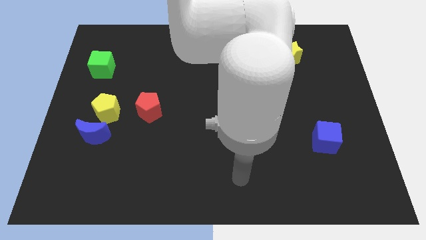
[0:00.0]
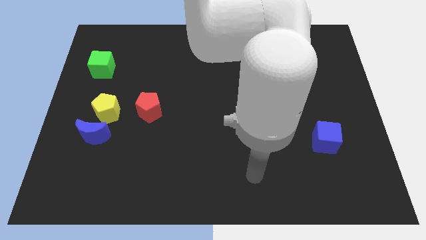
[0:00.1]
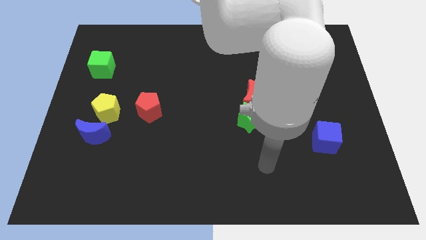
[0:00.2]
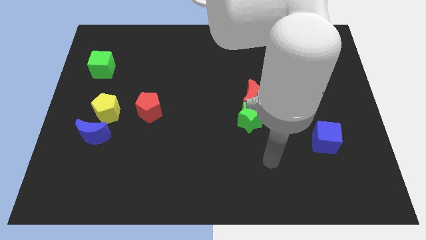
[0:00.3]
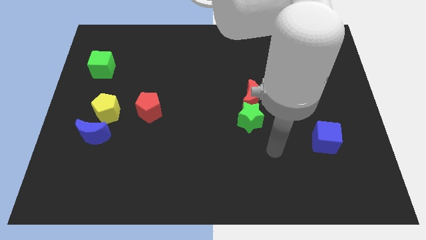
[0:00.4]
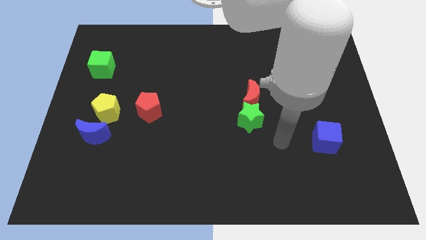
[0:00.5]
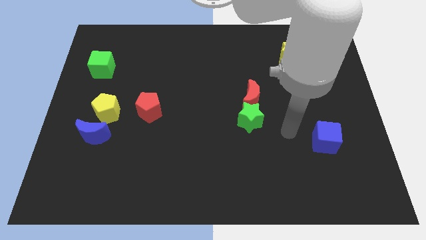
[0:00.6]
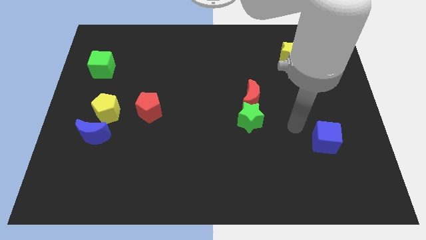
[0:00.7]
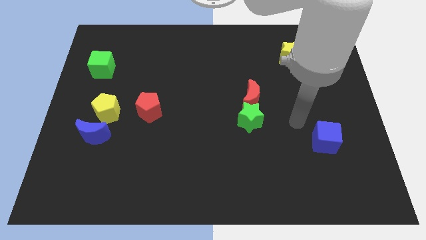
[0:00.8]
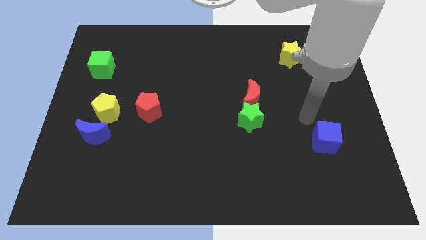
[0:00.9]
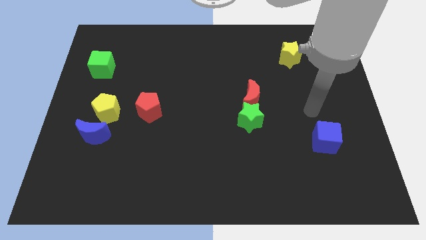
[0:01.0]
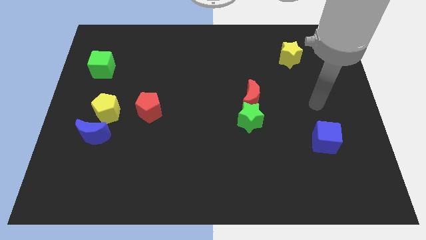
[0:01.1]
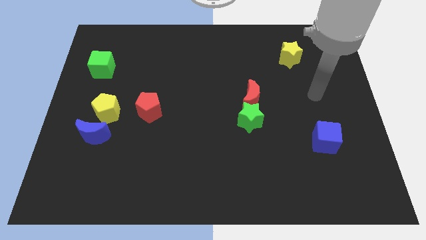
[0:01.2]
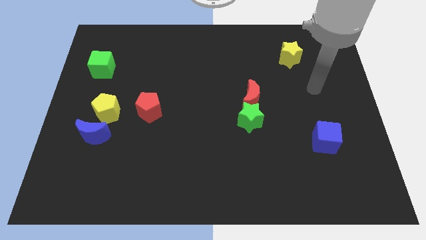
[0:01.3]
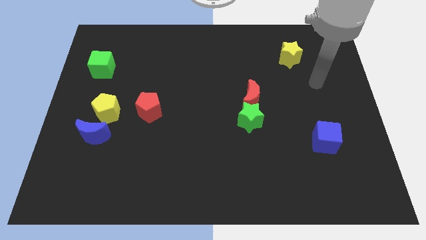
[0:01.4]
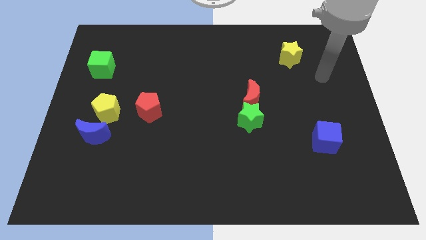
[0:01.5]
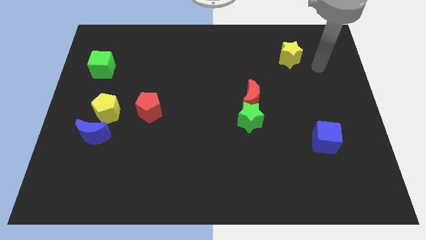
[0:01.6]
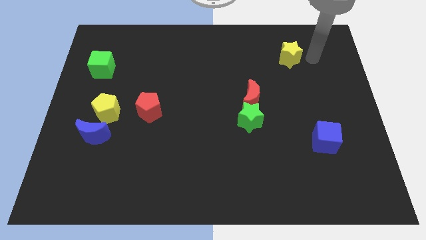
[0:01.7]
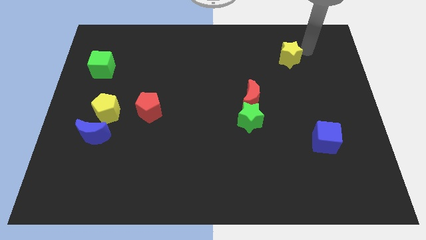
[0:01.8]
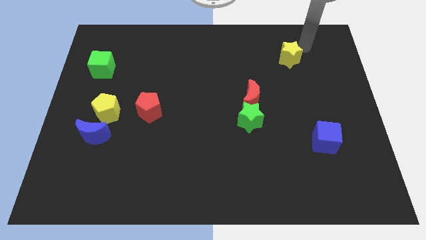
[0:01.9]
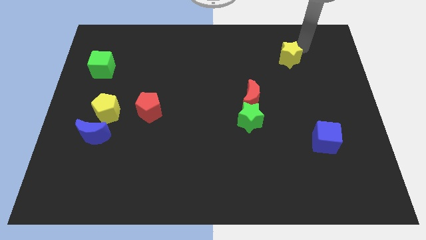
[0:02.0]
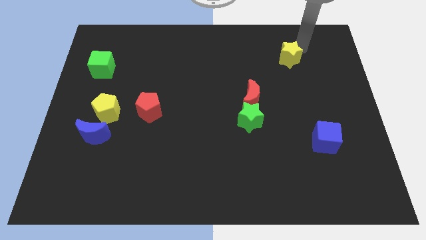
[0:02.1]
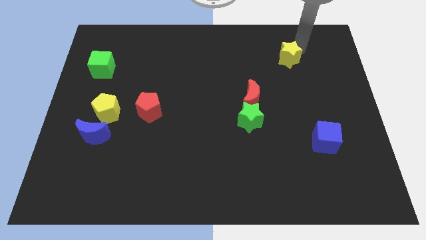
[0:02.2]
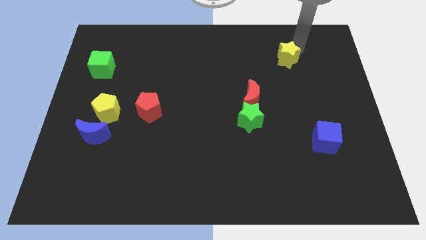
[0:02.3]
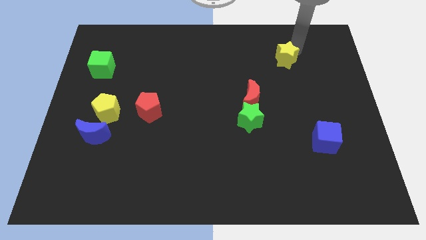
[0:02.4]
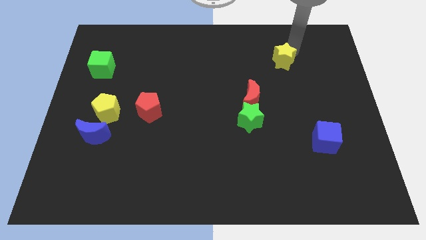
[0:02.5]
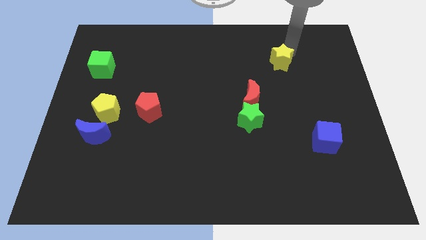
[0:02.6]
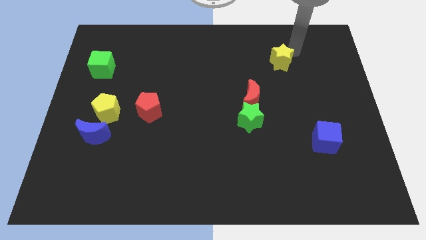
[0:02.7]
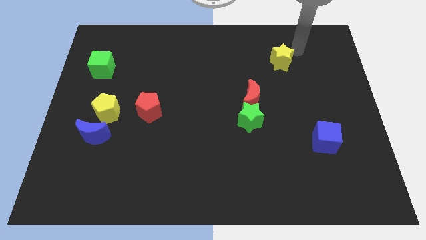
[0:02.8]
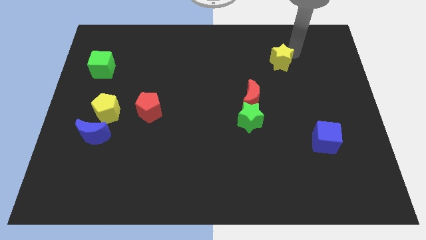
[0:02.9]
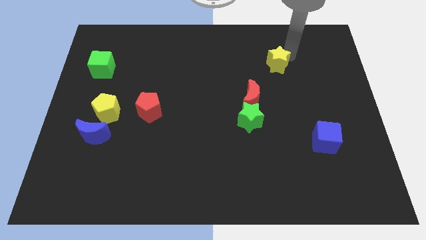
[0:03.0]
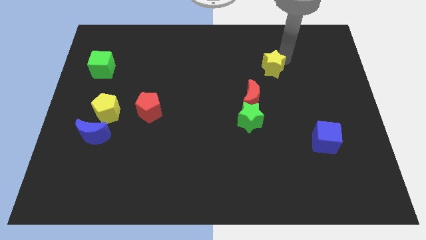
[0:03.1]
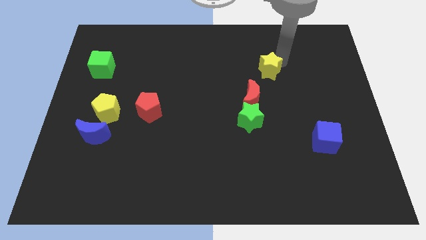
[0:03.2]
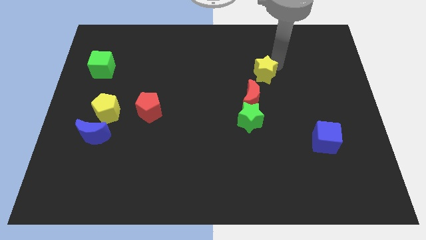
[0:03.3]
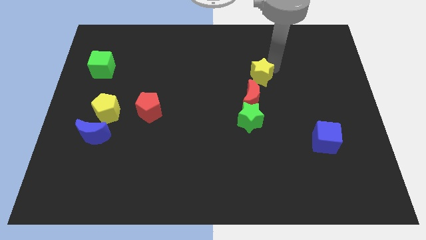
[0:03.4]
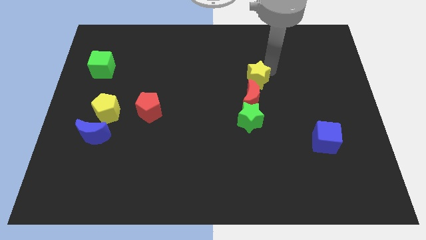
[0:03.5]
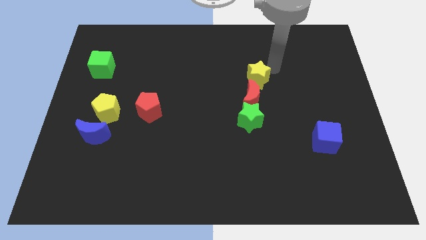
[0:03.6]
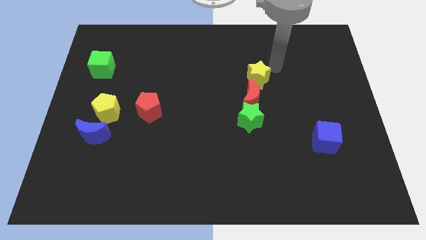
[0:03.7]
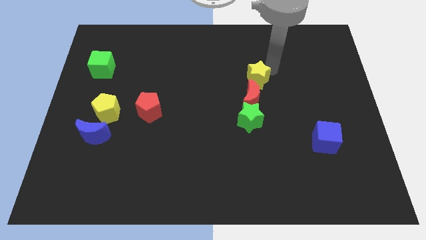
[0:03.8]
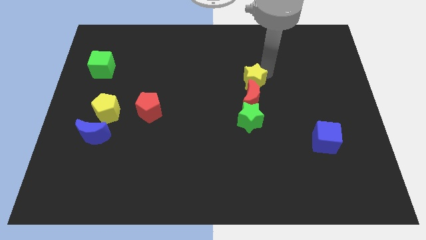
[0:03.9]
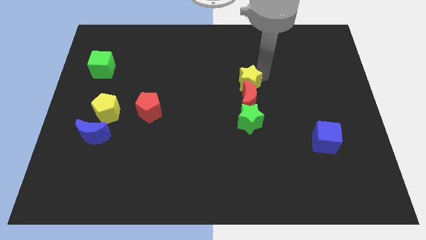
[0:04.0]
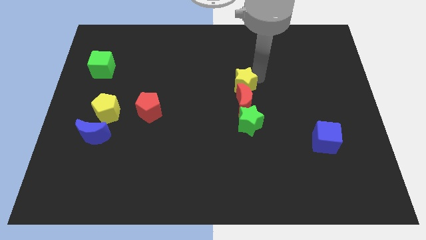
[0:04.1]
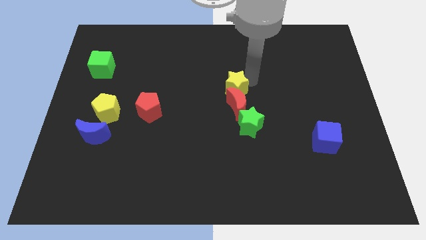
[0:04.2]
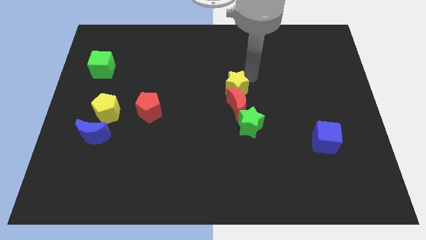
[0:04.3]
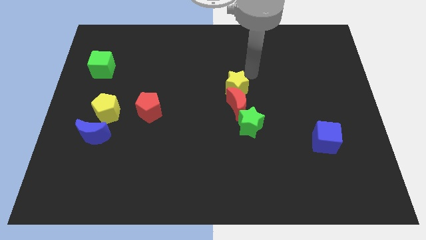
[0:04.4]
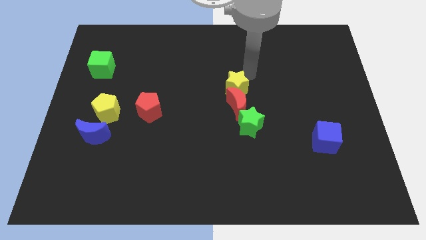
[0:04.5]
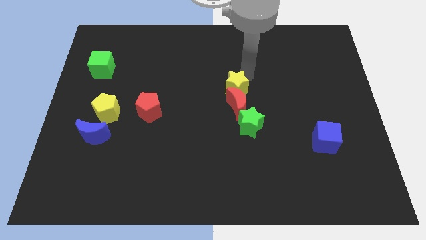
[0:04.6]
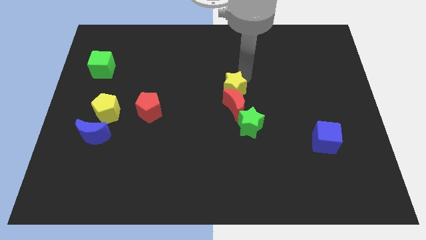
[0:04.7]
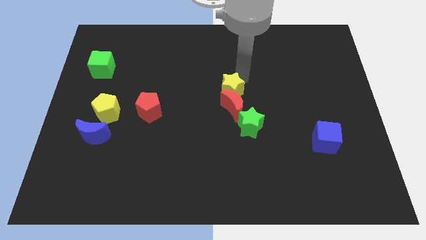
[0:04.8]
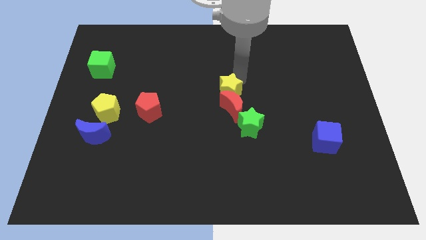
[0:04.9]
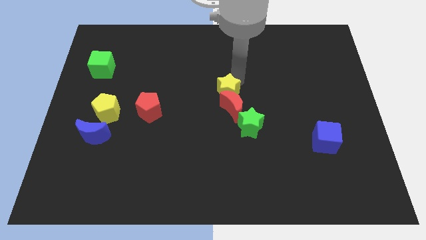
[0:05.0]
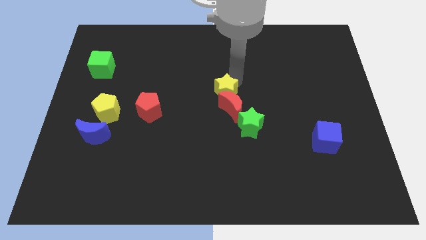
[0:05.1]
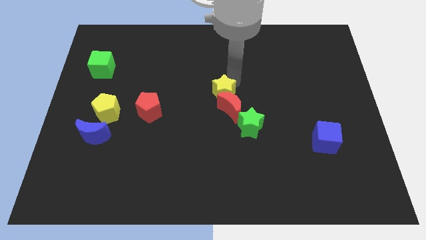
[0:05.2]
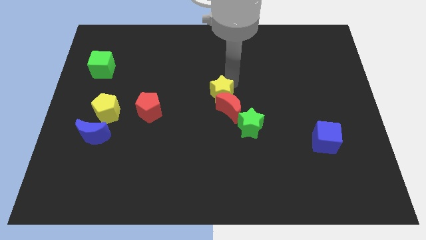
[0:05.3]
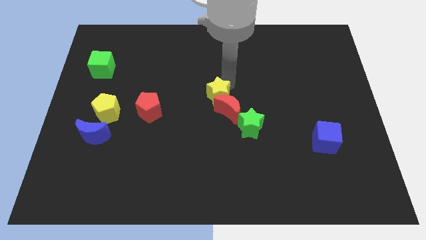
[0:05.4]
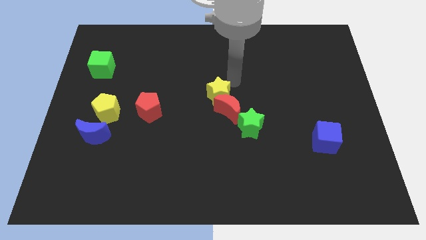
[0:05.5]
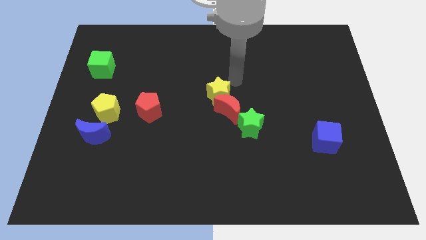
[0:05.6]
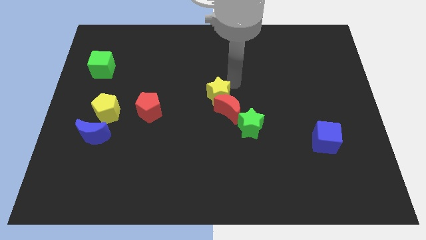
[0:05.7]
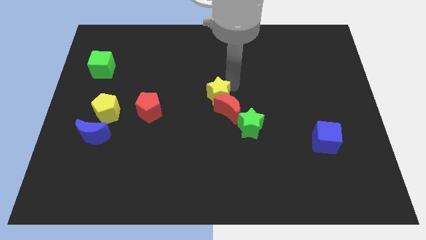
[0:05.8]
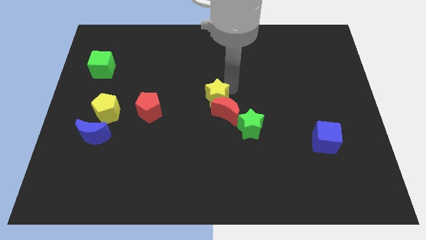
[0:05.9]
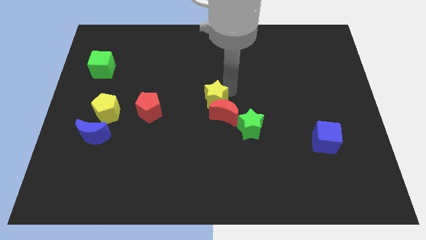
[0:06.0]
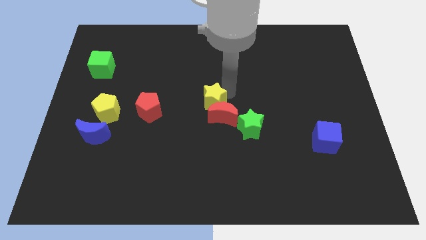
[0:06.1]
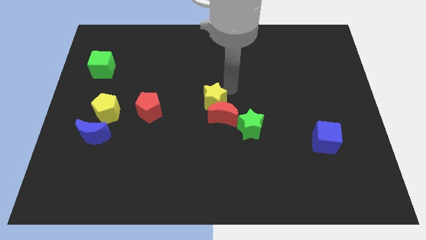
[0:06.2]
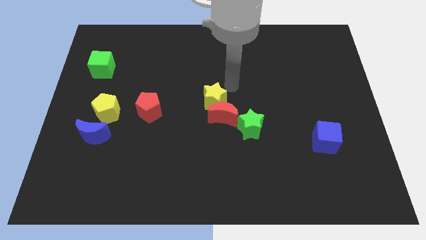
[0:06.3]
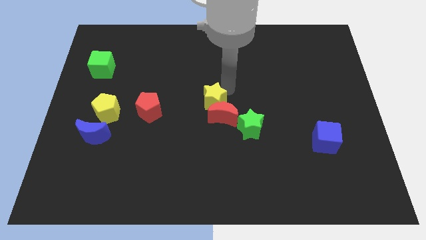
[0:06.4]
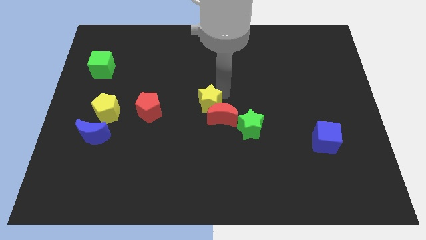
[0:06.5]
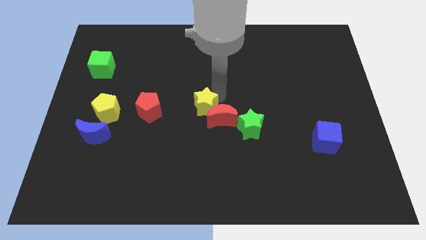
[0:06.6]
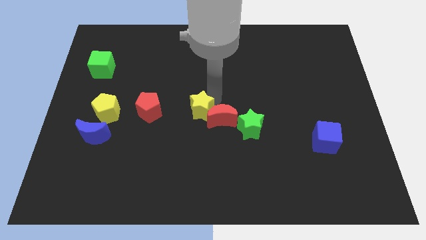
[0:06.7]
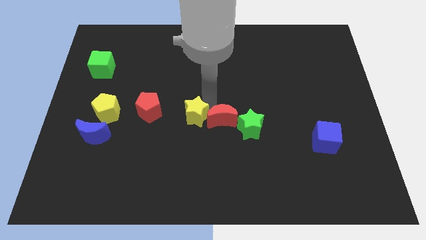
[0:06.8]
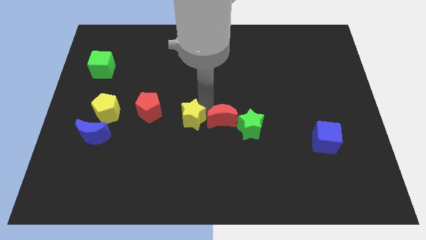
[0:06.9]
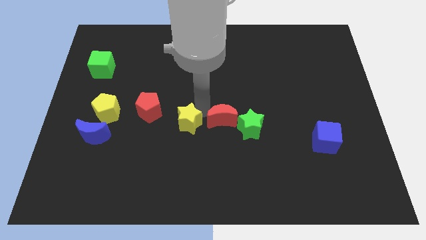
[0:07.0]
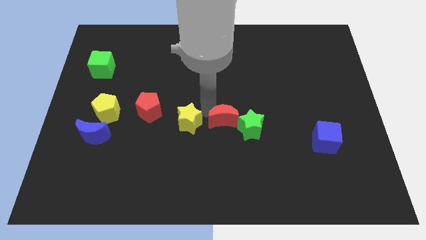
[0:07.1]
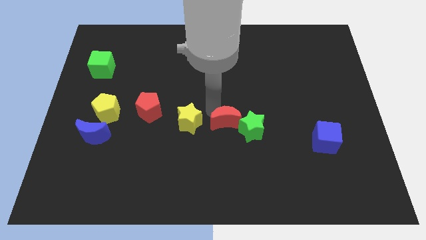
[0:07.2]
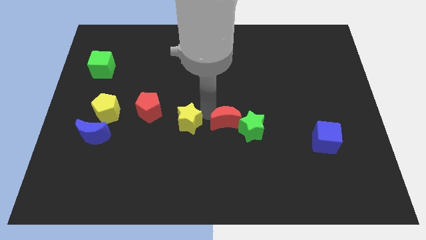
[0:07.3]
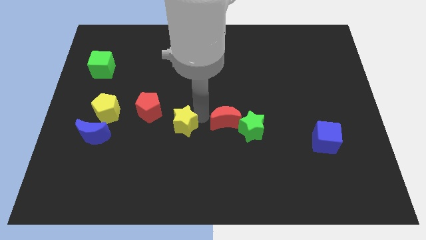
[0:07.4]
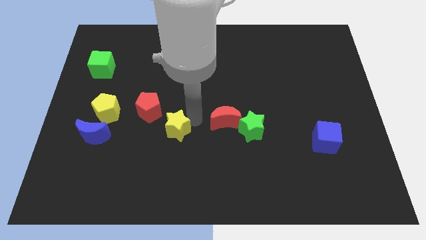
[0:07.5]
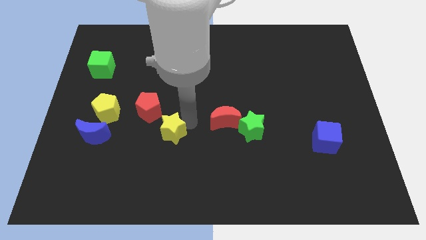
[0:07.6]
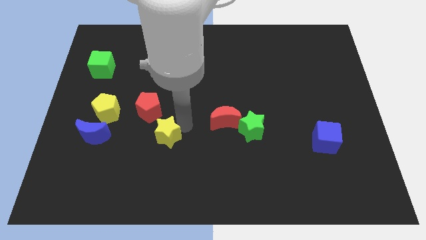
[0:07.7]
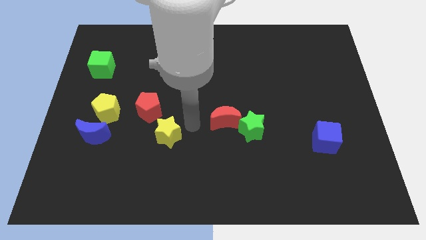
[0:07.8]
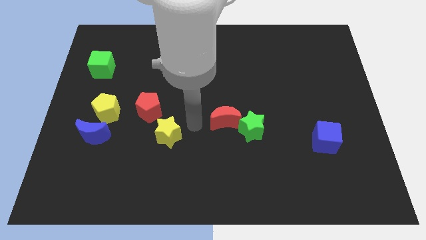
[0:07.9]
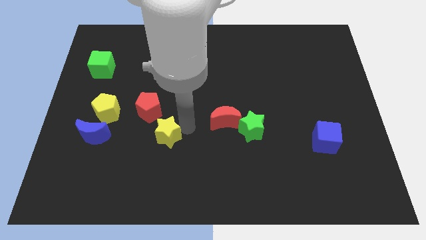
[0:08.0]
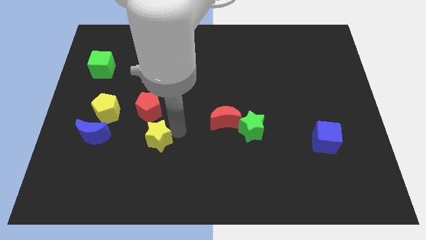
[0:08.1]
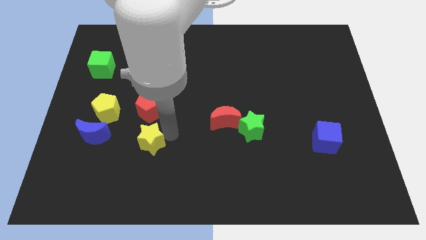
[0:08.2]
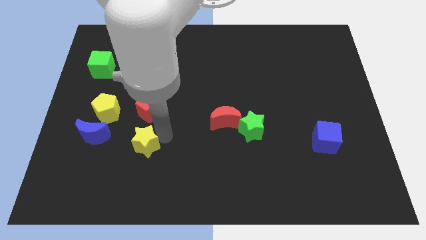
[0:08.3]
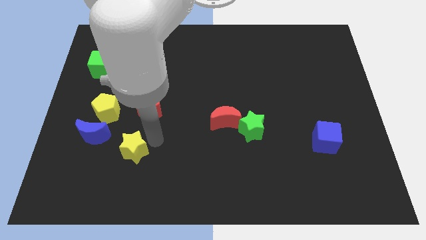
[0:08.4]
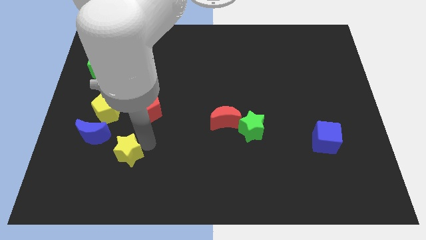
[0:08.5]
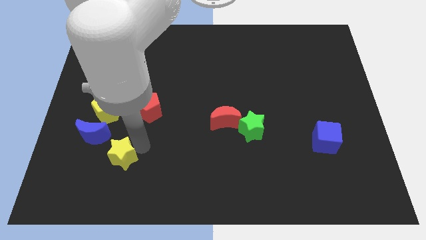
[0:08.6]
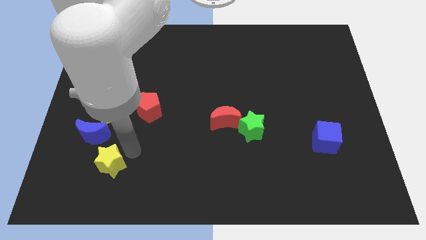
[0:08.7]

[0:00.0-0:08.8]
push the yellow star below the blue moon
